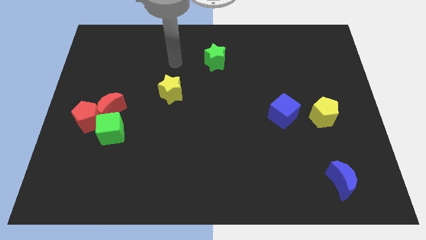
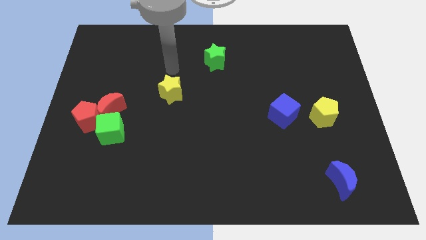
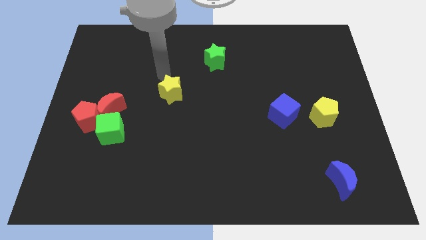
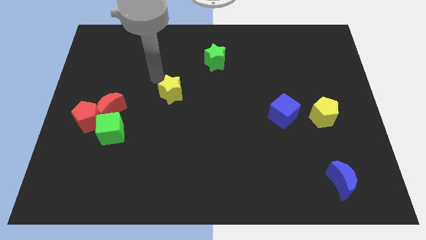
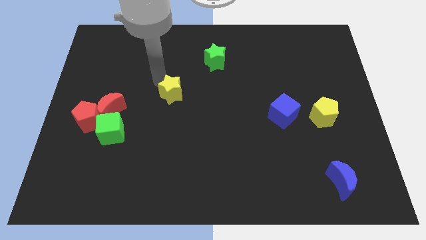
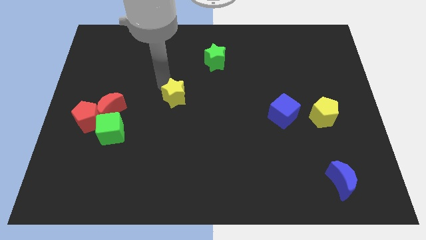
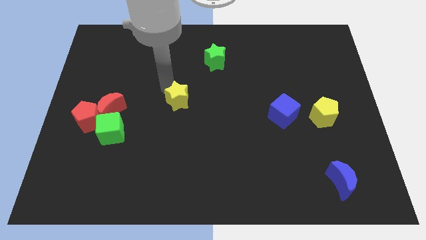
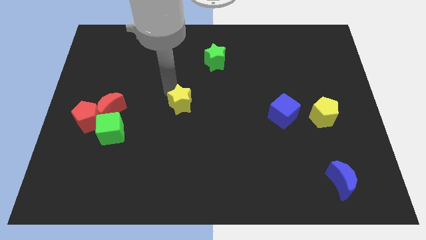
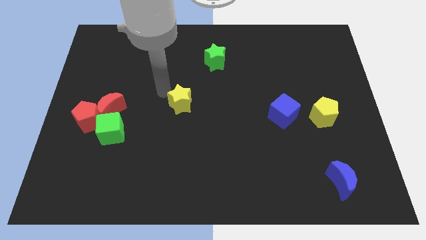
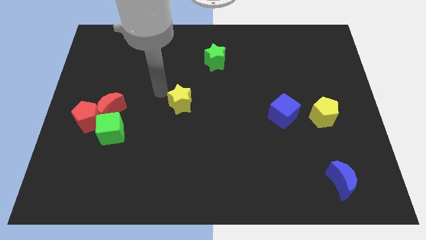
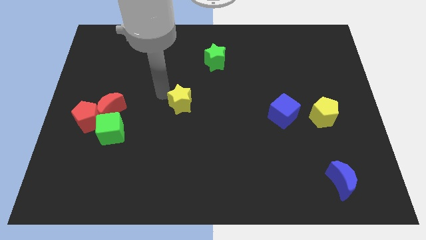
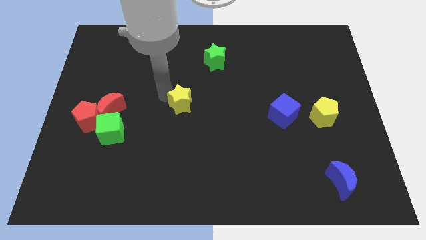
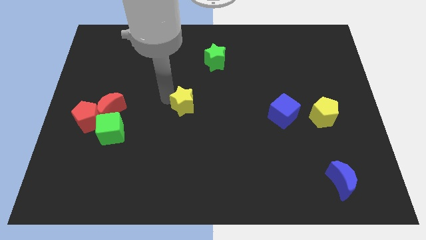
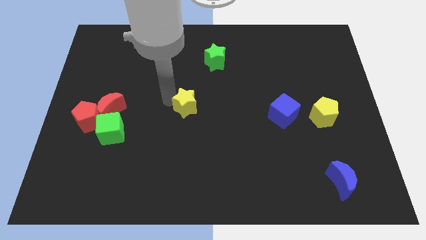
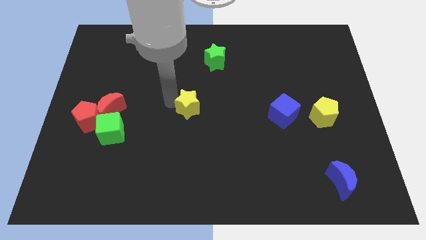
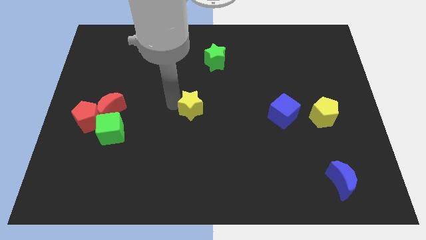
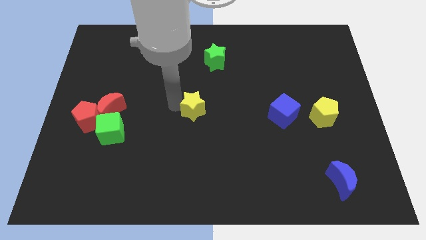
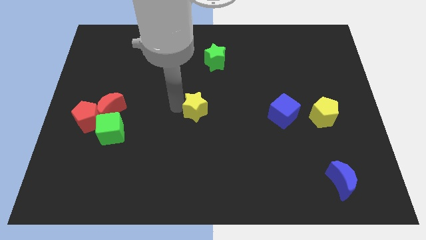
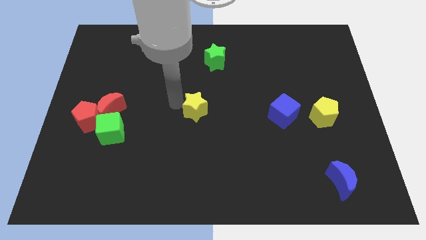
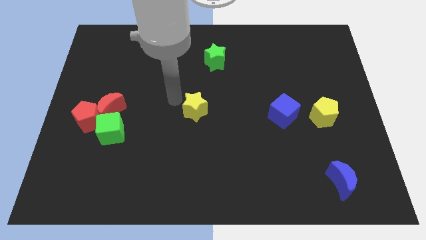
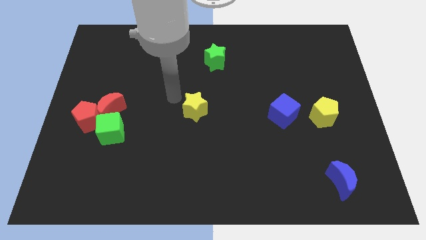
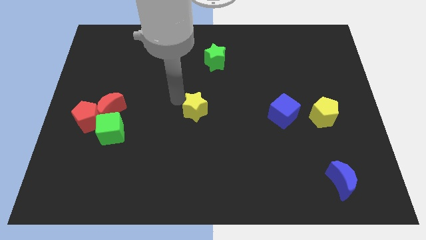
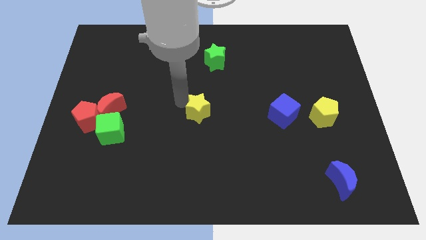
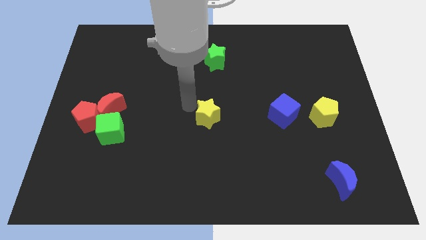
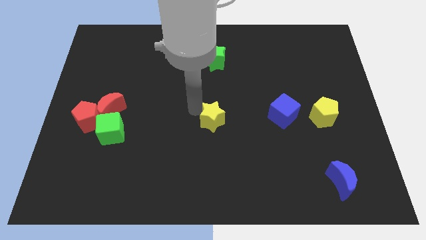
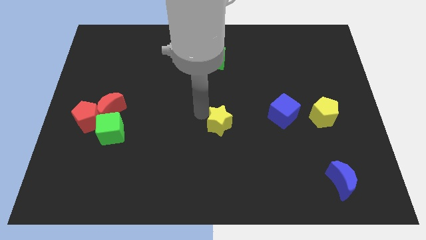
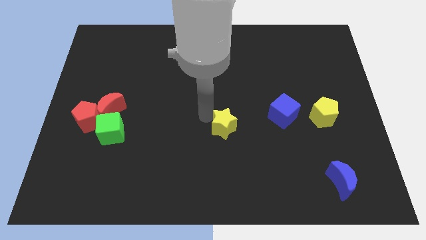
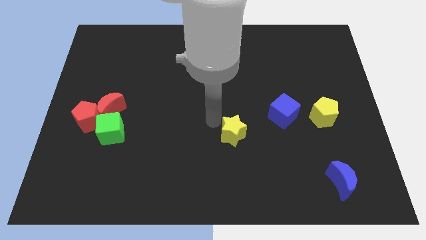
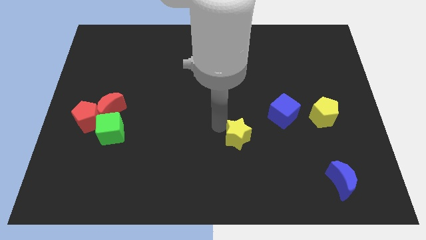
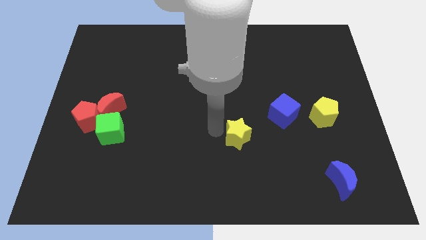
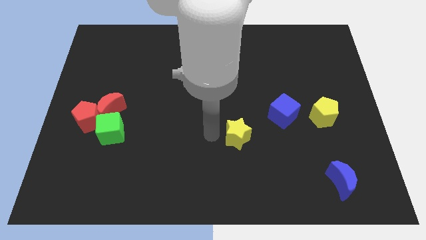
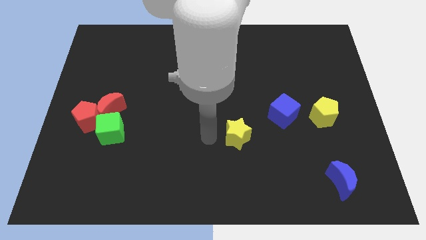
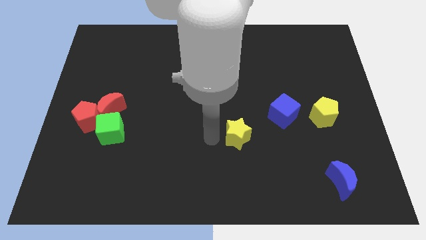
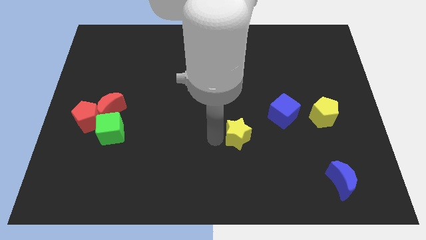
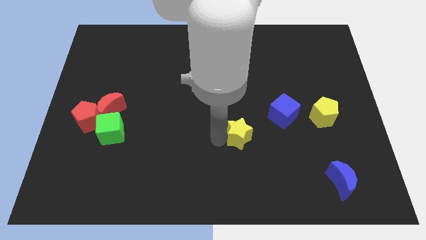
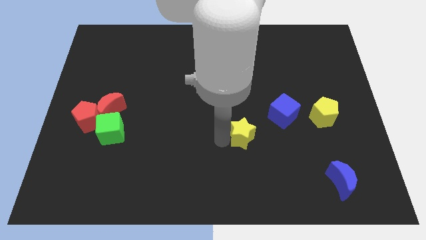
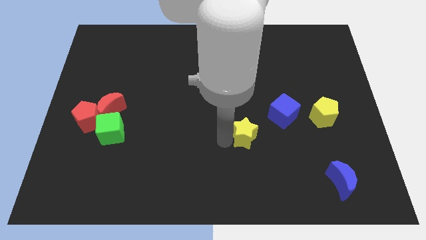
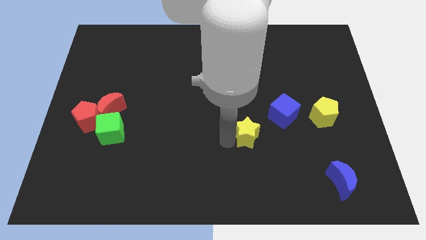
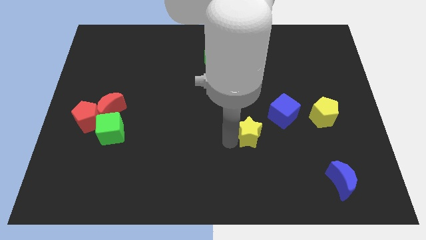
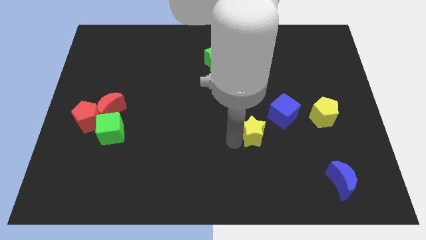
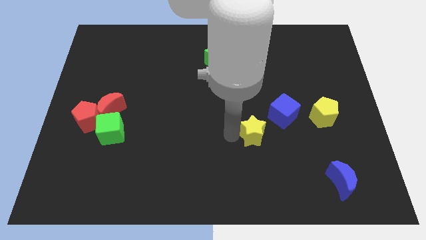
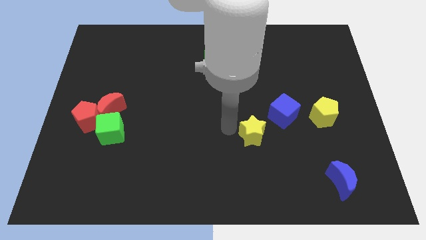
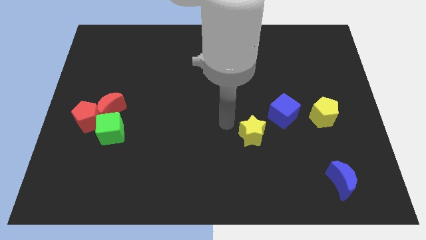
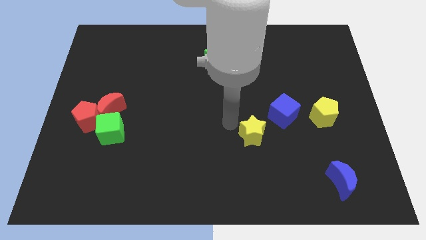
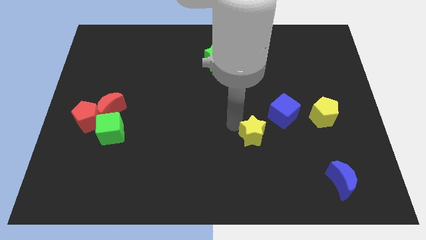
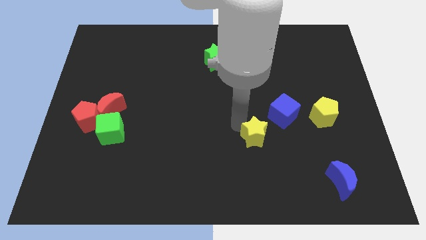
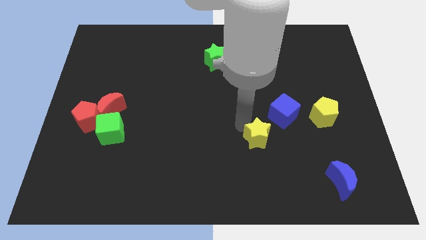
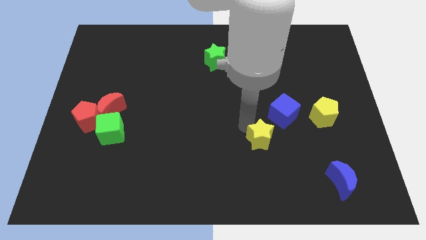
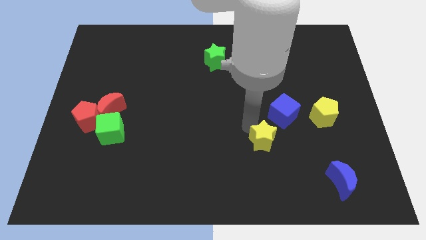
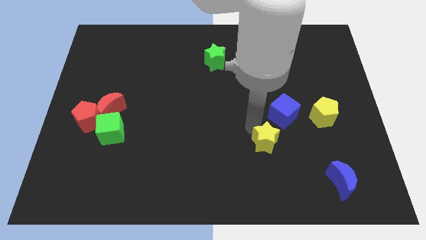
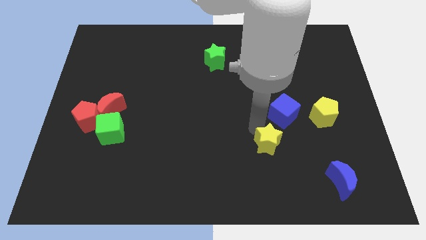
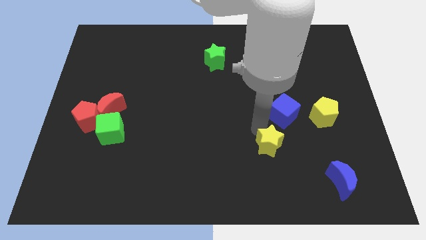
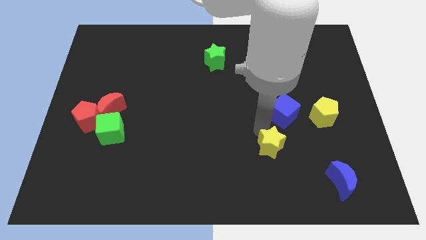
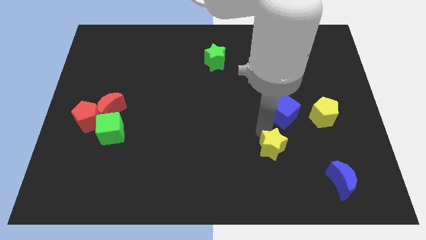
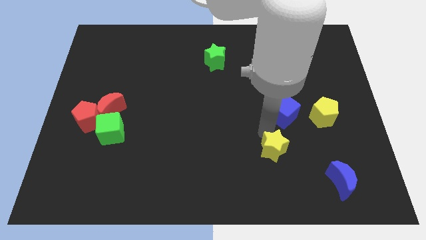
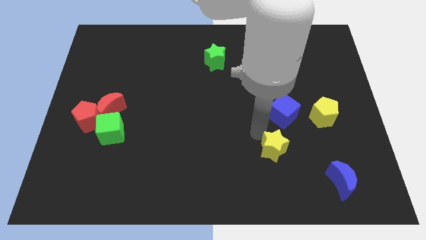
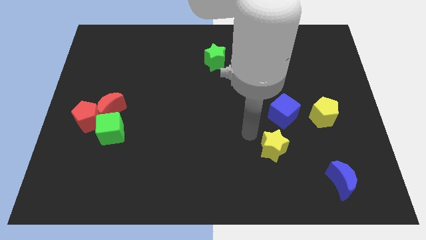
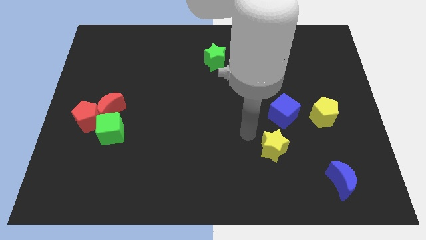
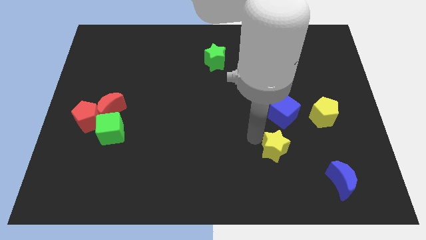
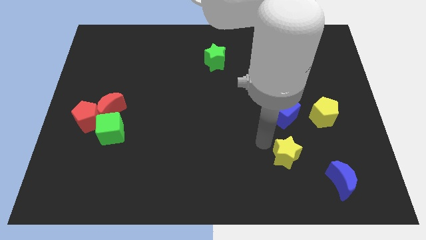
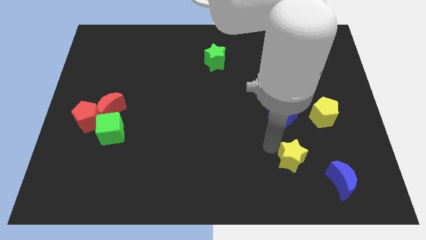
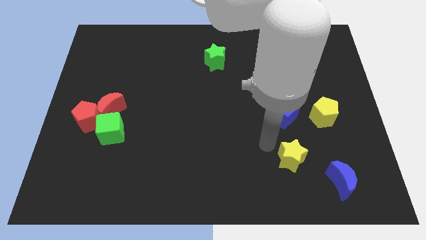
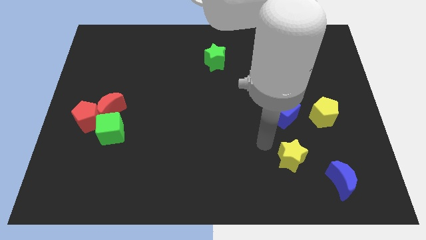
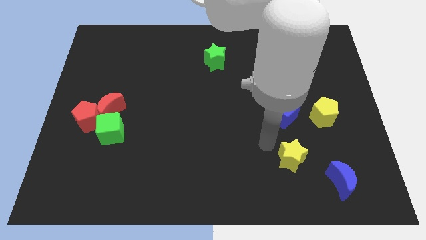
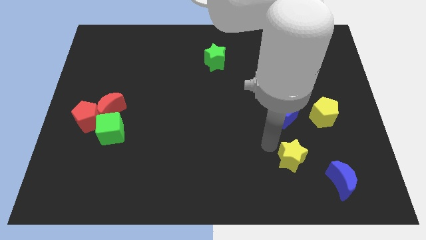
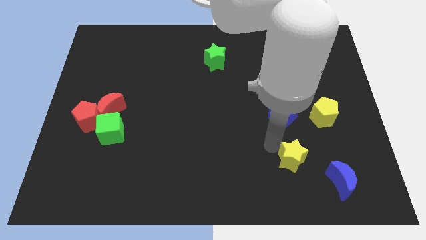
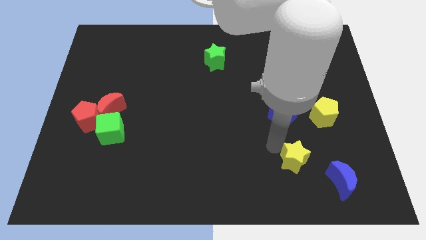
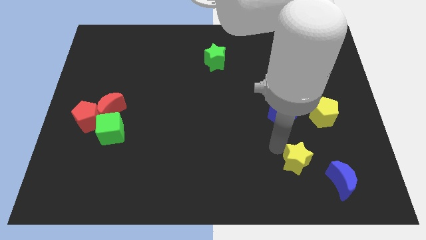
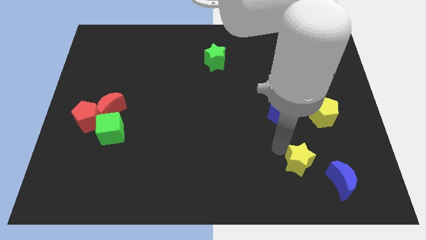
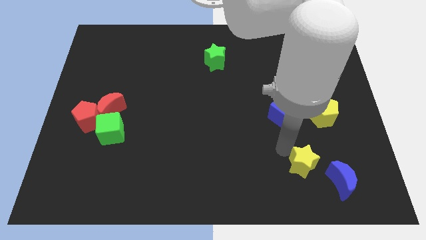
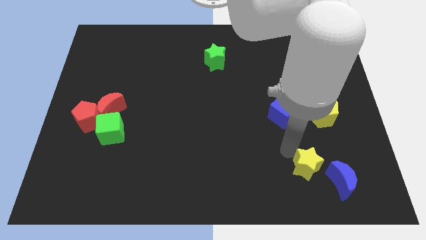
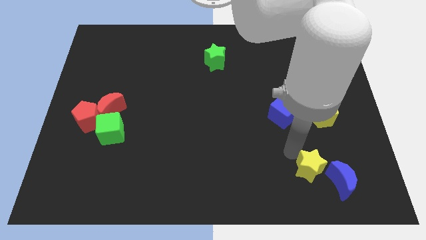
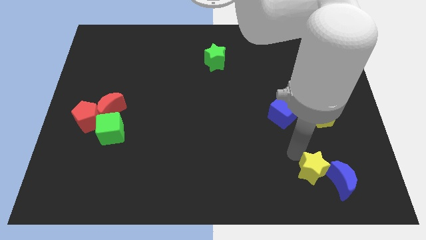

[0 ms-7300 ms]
push the yellow star to the blue moon
